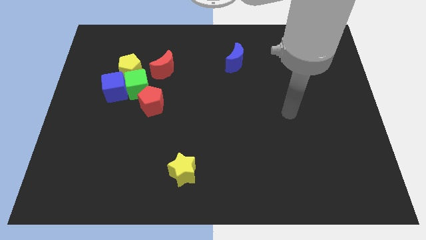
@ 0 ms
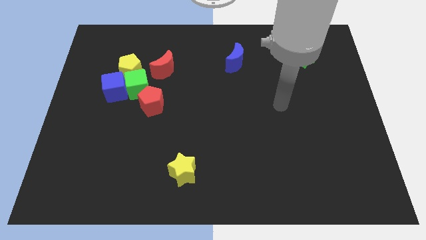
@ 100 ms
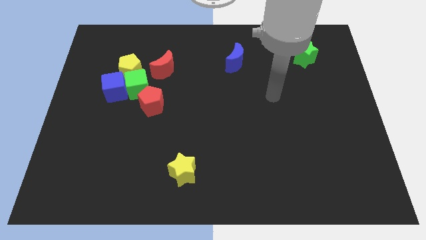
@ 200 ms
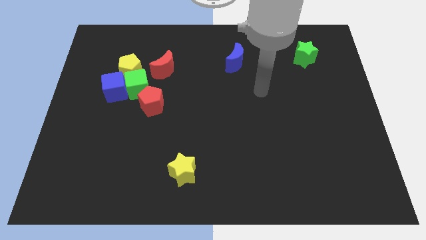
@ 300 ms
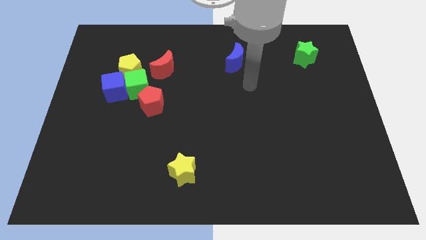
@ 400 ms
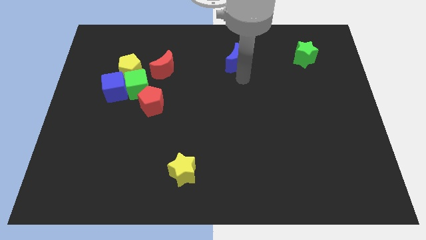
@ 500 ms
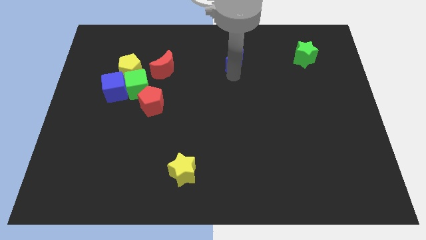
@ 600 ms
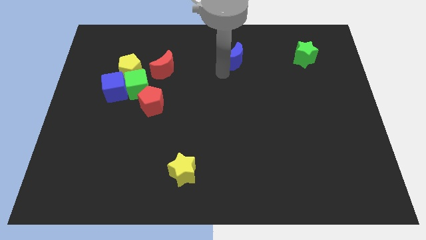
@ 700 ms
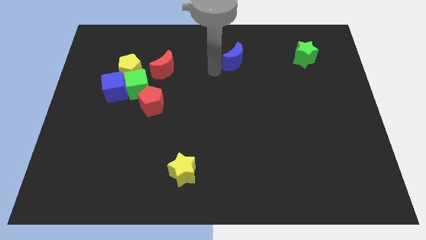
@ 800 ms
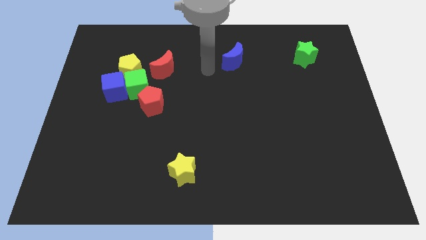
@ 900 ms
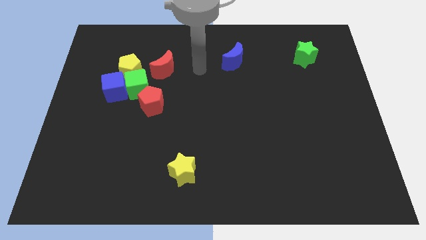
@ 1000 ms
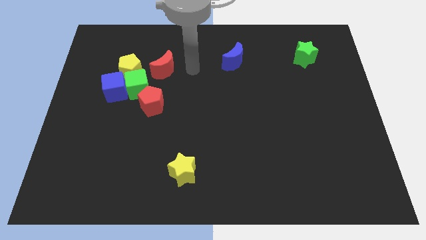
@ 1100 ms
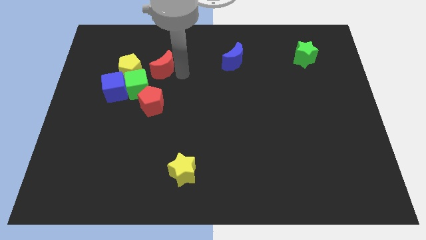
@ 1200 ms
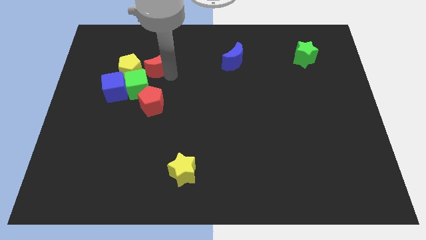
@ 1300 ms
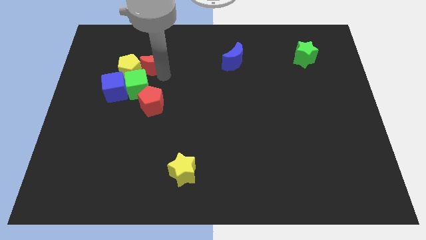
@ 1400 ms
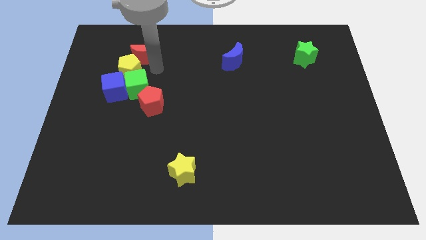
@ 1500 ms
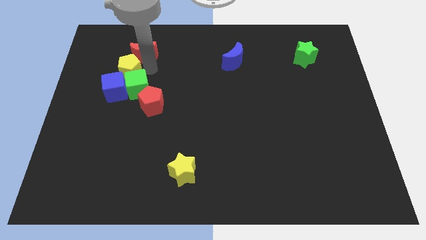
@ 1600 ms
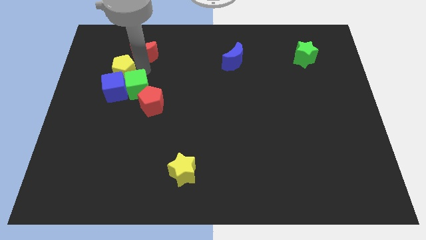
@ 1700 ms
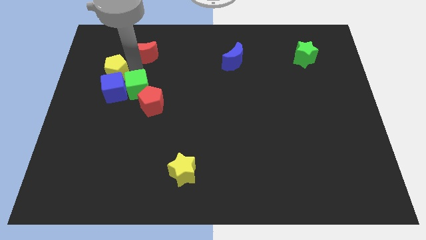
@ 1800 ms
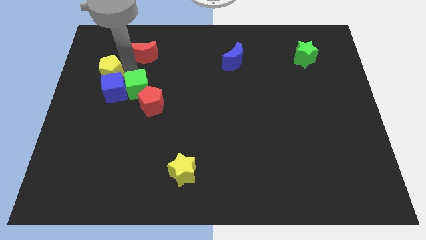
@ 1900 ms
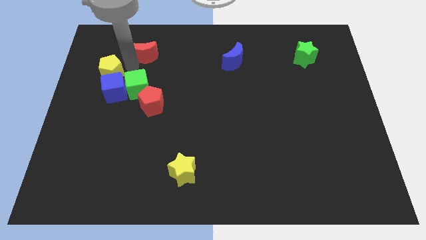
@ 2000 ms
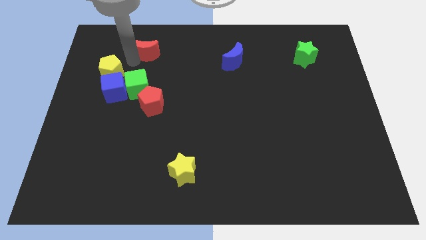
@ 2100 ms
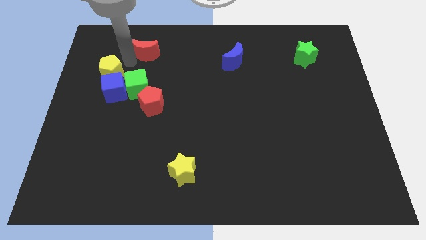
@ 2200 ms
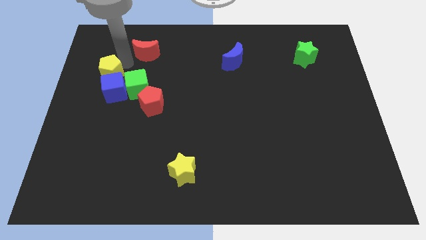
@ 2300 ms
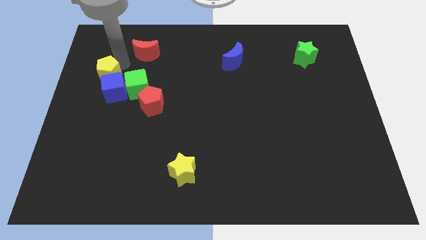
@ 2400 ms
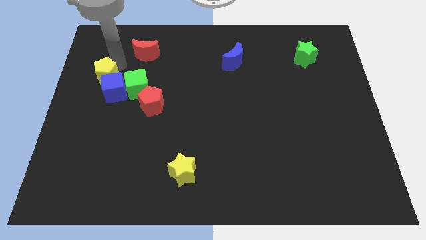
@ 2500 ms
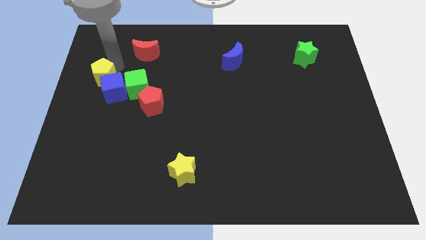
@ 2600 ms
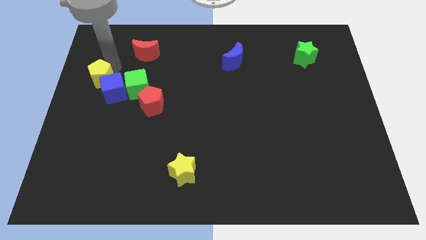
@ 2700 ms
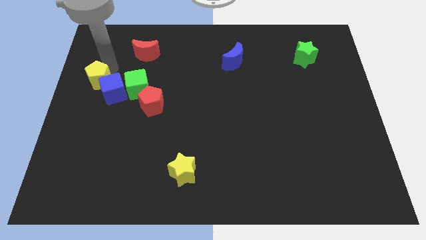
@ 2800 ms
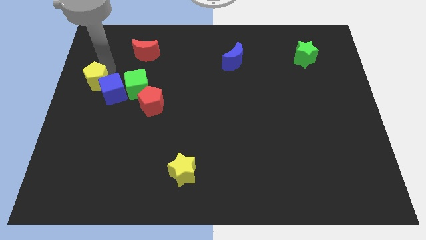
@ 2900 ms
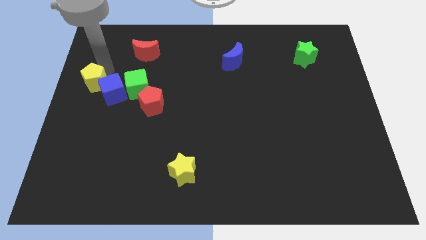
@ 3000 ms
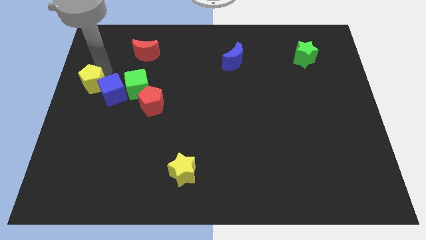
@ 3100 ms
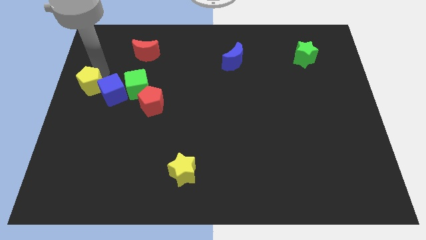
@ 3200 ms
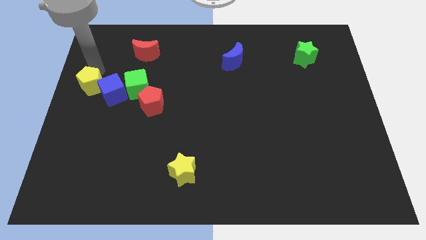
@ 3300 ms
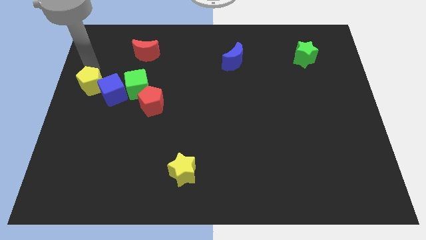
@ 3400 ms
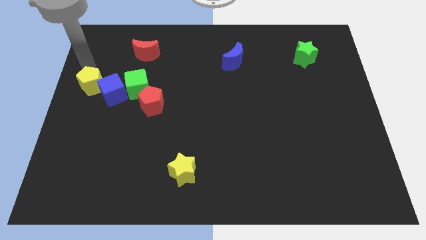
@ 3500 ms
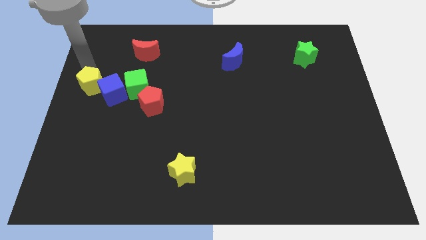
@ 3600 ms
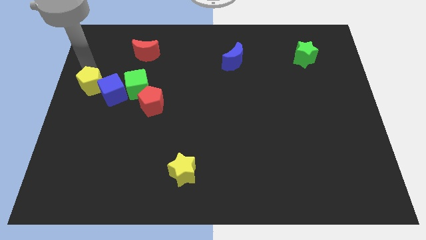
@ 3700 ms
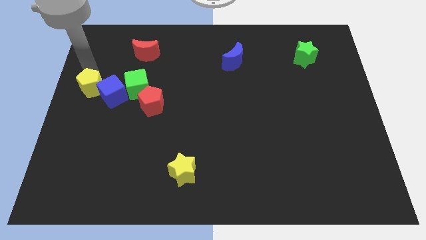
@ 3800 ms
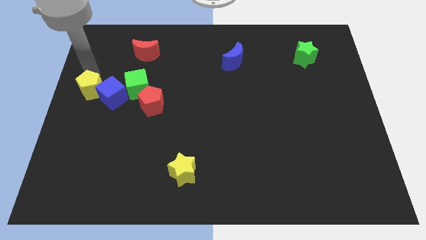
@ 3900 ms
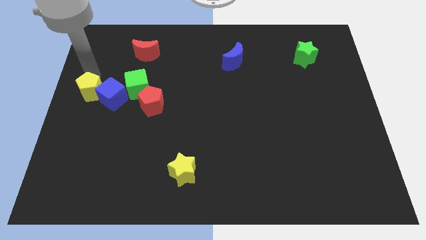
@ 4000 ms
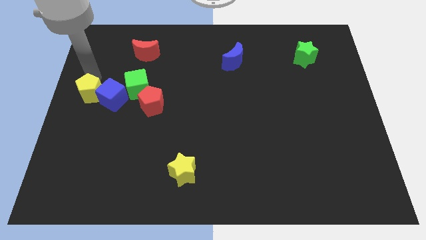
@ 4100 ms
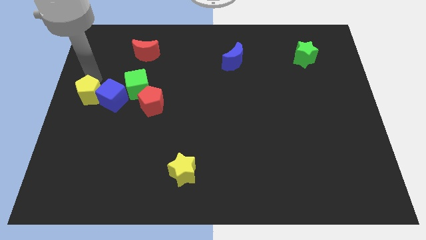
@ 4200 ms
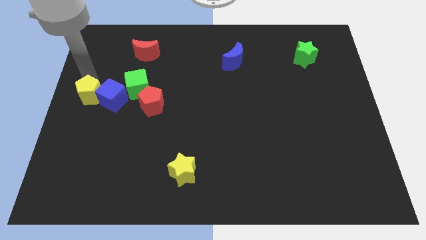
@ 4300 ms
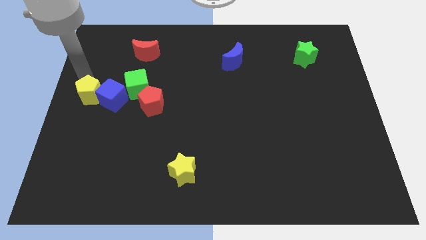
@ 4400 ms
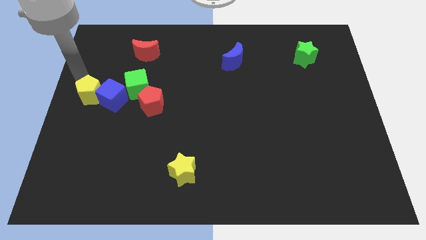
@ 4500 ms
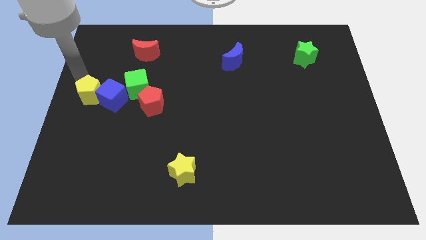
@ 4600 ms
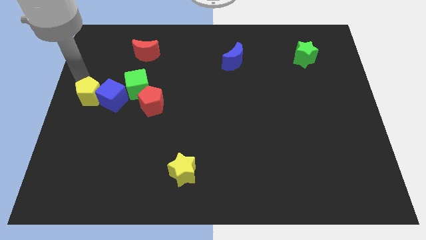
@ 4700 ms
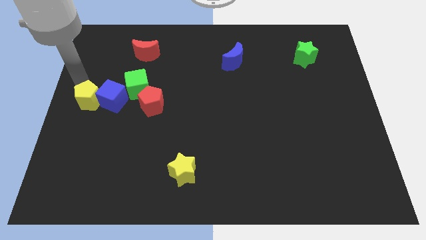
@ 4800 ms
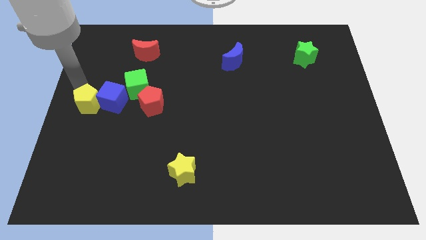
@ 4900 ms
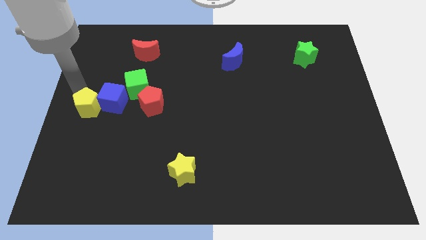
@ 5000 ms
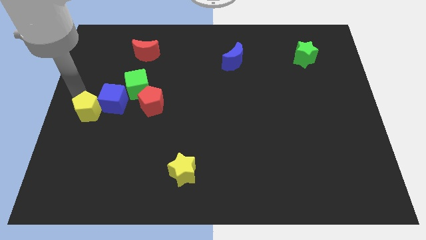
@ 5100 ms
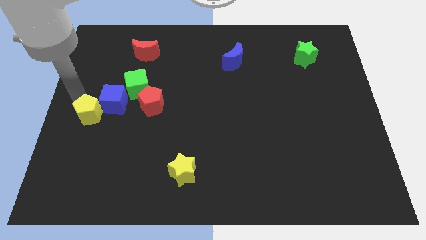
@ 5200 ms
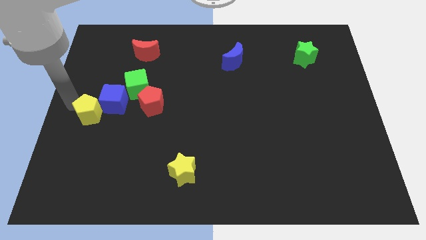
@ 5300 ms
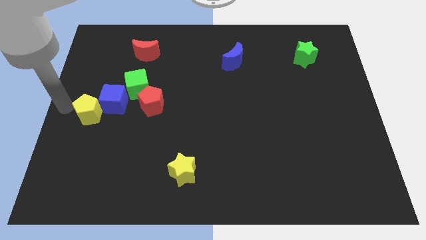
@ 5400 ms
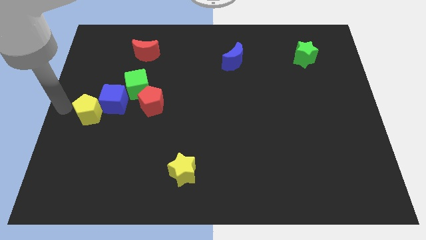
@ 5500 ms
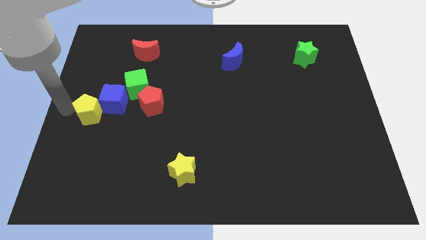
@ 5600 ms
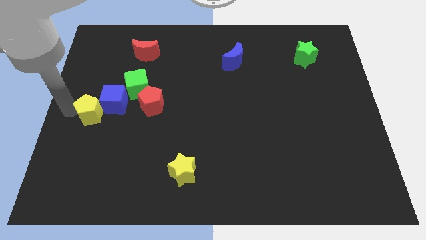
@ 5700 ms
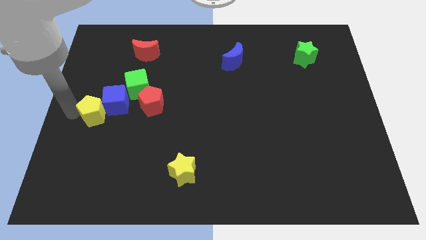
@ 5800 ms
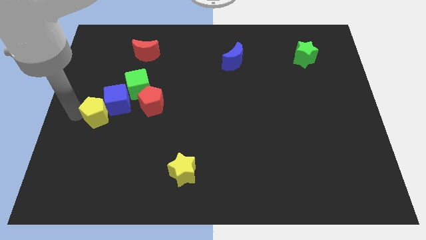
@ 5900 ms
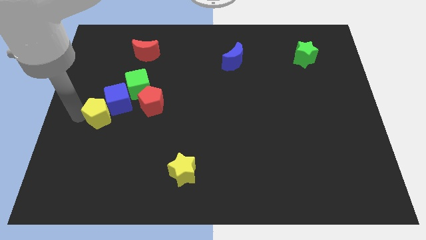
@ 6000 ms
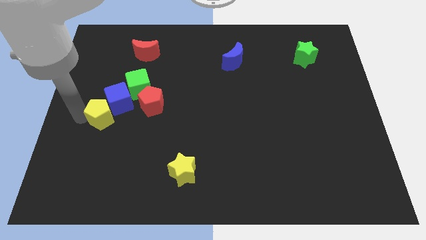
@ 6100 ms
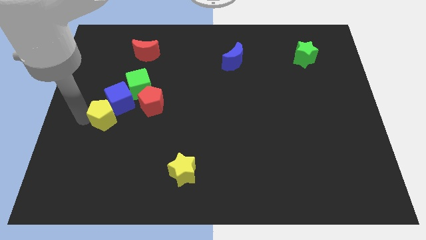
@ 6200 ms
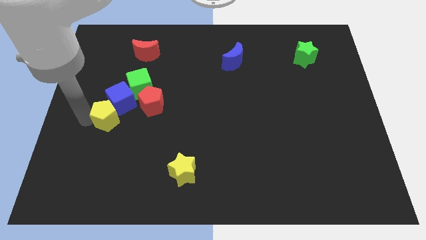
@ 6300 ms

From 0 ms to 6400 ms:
slide the yellow pentagon to the bottom left of the red pentagon
